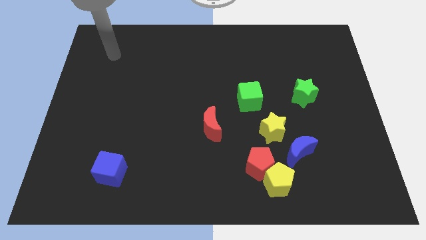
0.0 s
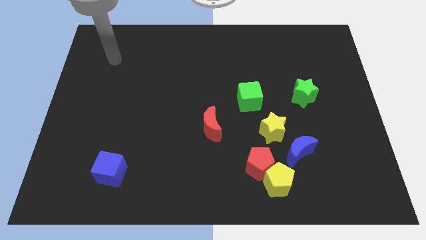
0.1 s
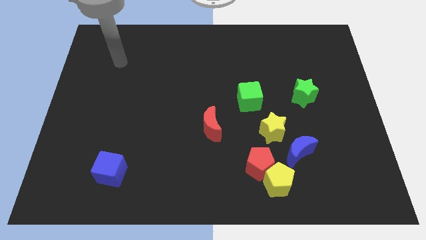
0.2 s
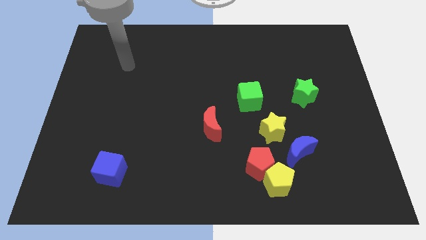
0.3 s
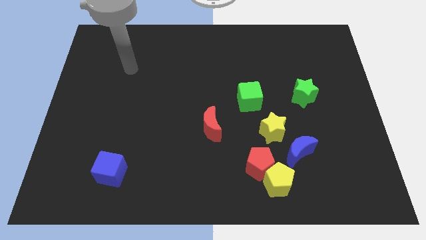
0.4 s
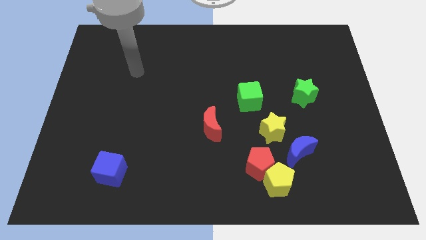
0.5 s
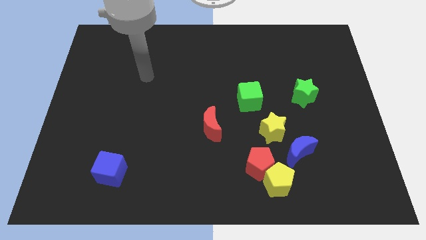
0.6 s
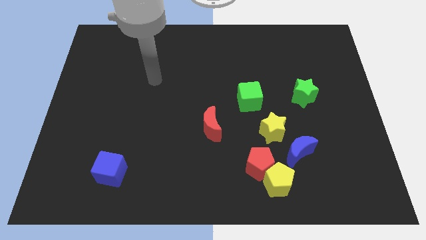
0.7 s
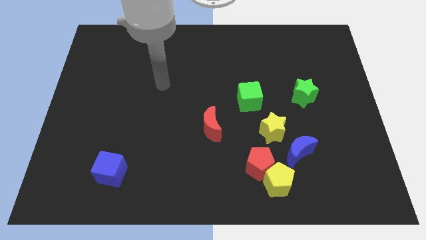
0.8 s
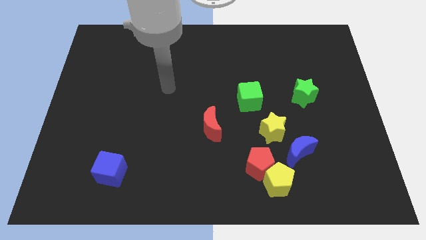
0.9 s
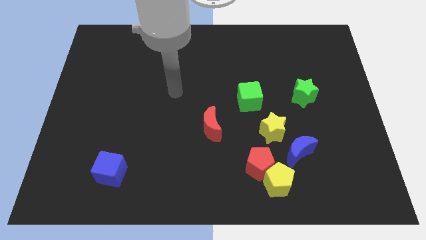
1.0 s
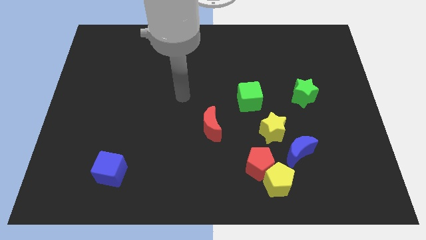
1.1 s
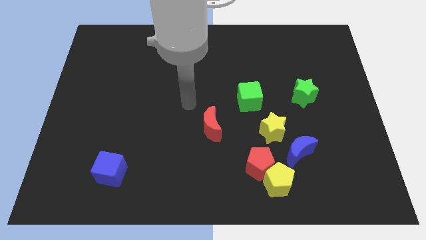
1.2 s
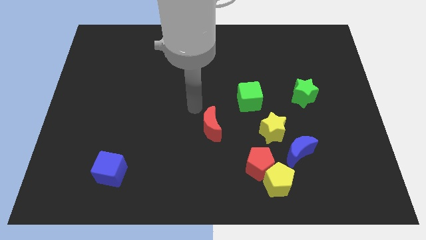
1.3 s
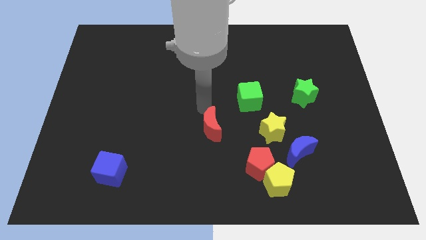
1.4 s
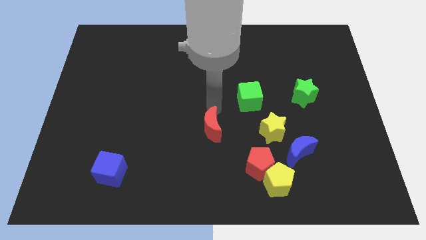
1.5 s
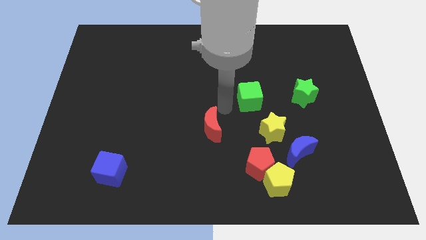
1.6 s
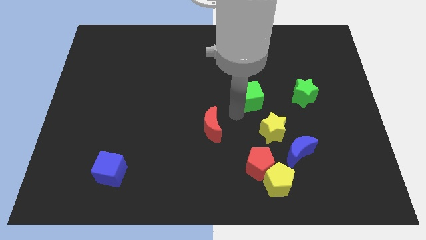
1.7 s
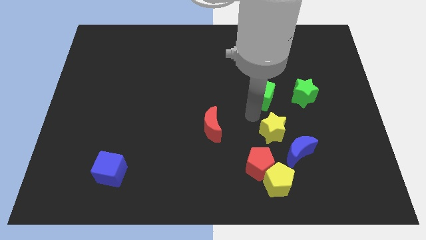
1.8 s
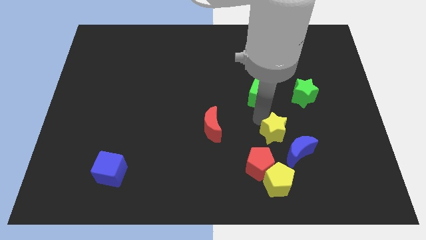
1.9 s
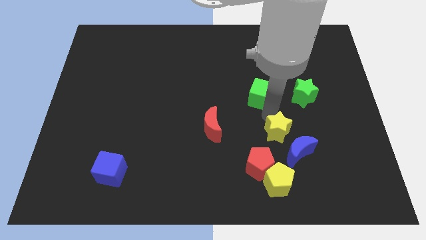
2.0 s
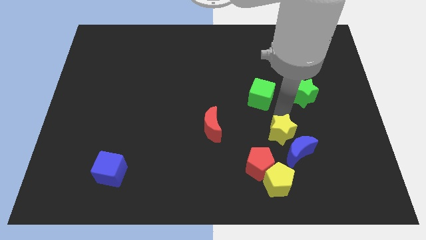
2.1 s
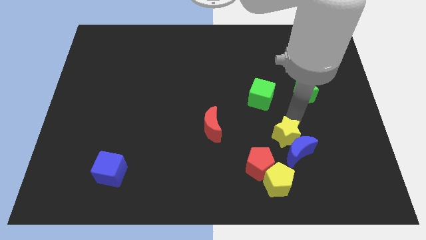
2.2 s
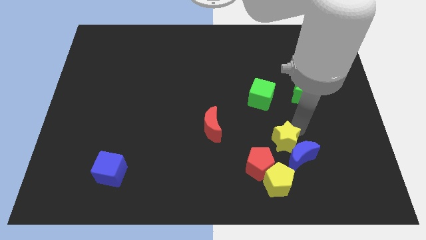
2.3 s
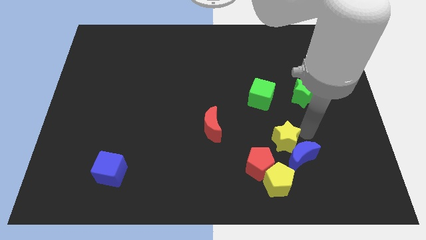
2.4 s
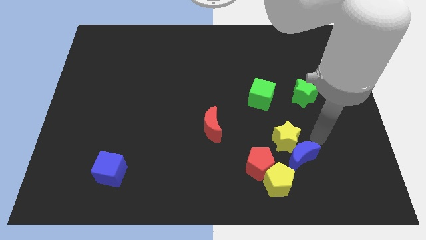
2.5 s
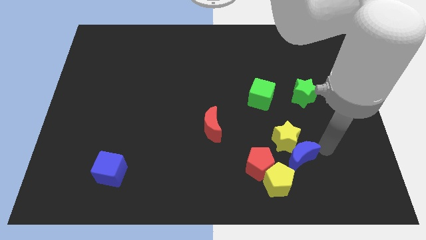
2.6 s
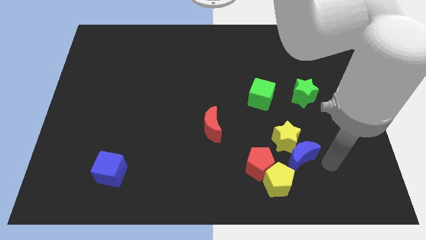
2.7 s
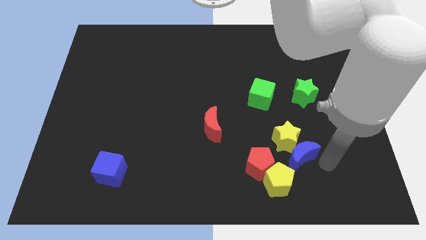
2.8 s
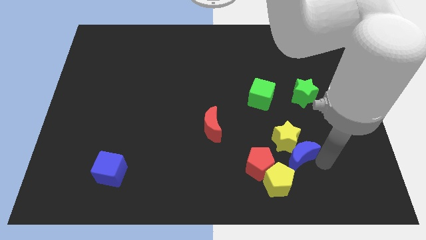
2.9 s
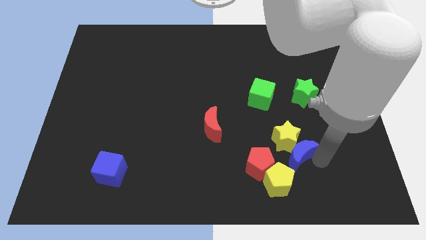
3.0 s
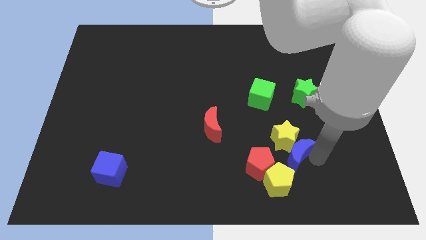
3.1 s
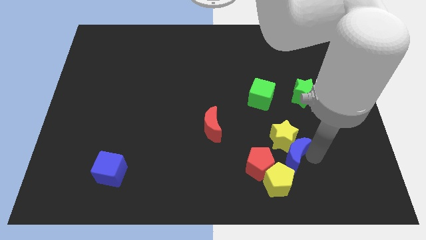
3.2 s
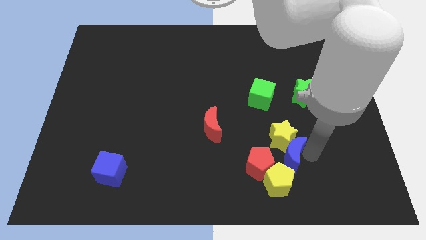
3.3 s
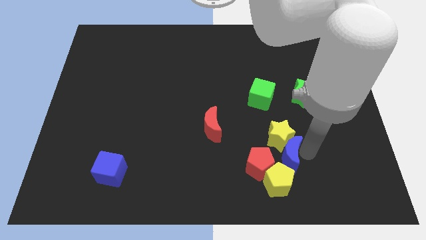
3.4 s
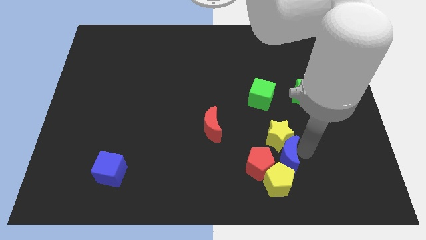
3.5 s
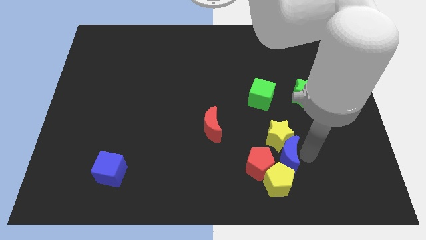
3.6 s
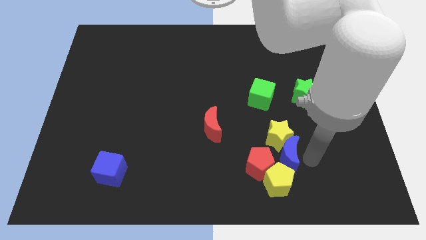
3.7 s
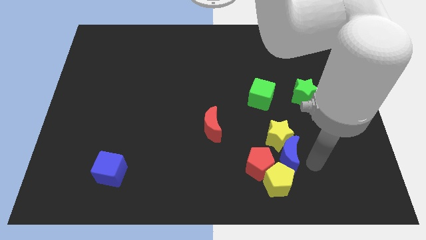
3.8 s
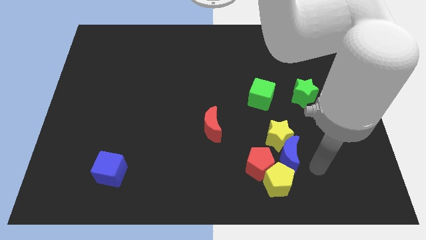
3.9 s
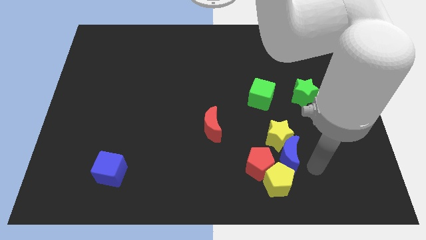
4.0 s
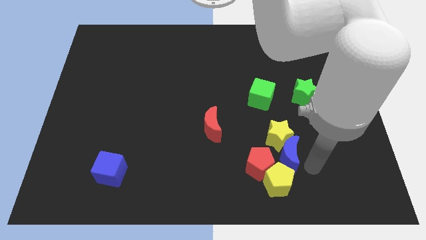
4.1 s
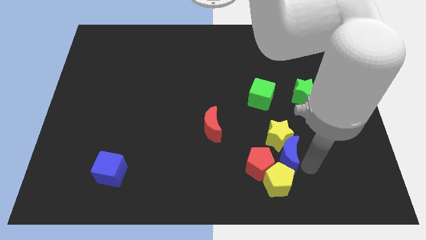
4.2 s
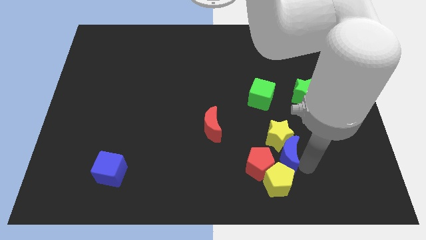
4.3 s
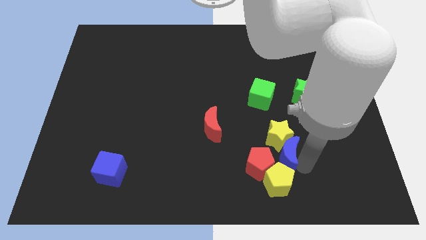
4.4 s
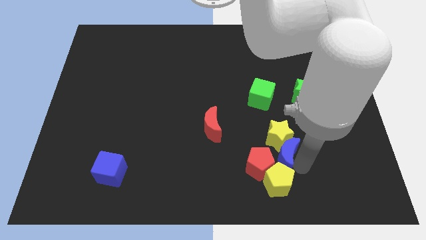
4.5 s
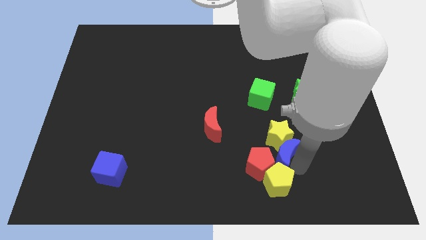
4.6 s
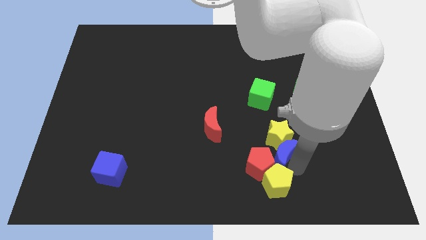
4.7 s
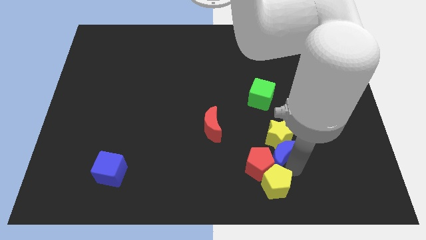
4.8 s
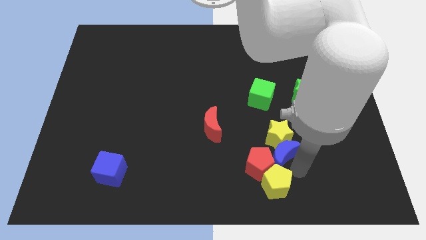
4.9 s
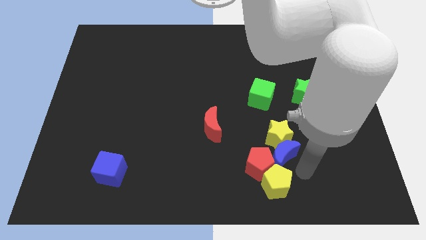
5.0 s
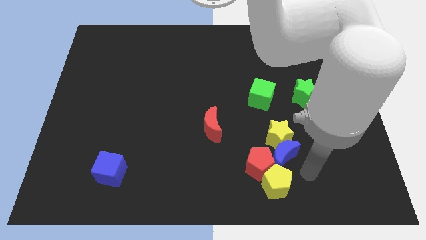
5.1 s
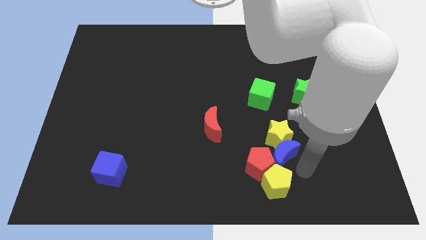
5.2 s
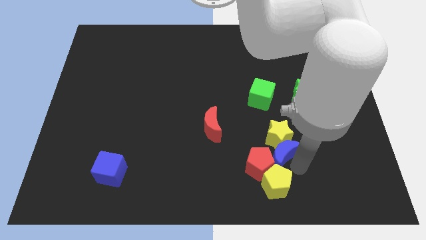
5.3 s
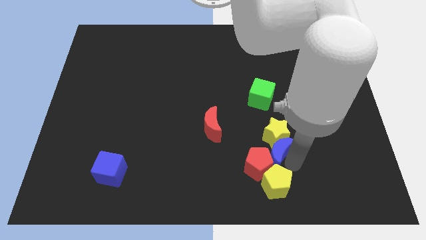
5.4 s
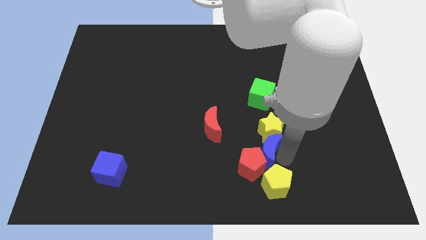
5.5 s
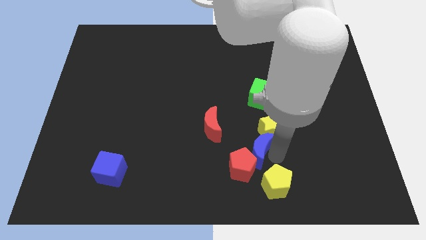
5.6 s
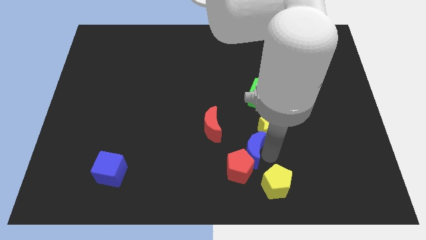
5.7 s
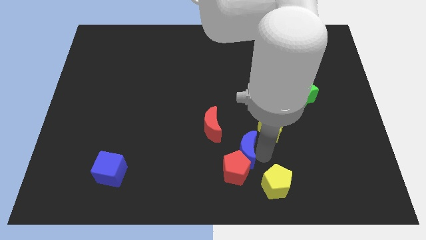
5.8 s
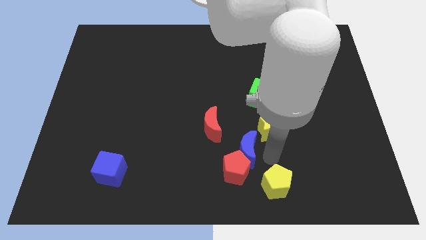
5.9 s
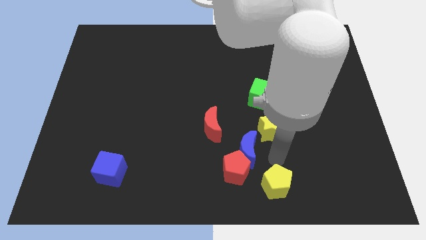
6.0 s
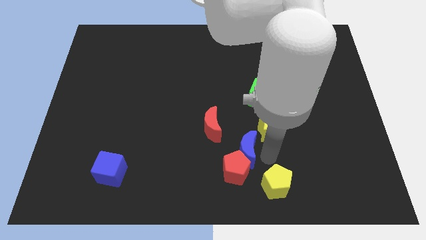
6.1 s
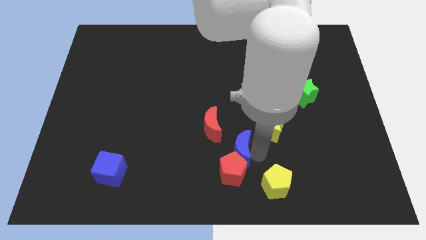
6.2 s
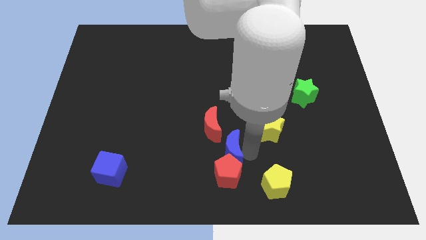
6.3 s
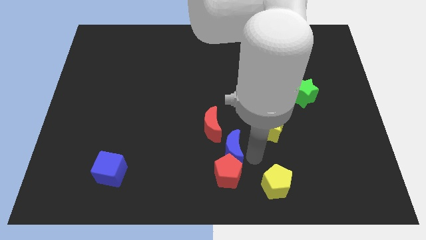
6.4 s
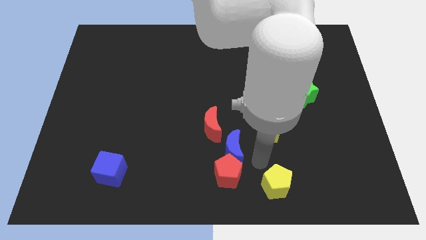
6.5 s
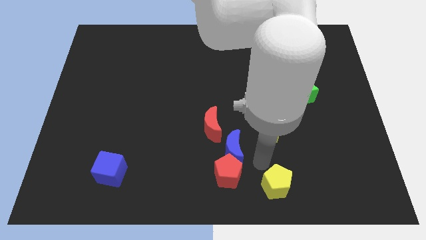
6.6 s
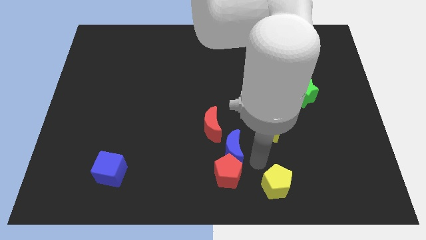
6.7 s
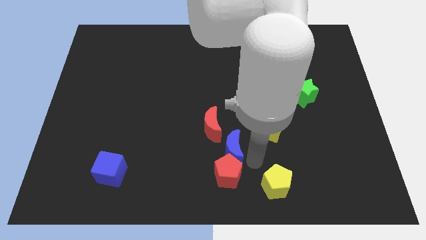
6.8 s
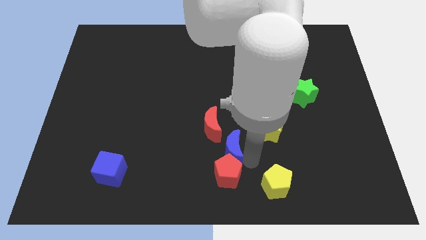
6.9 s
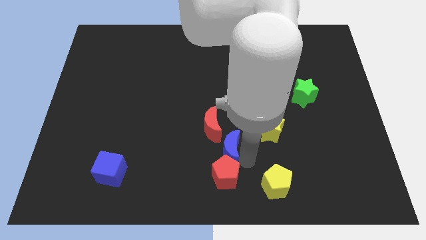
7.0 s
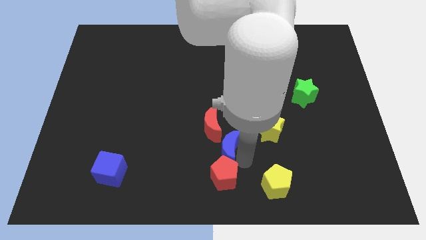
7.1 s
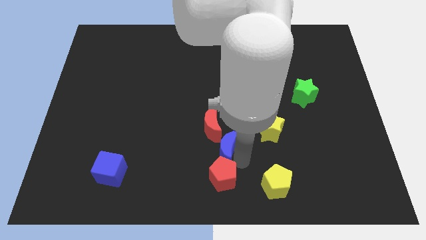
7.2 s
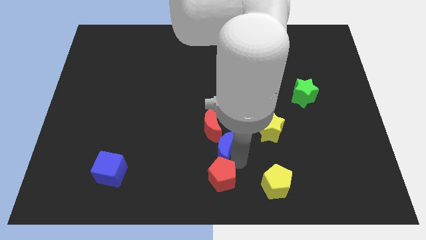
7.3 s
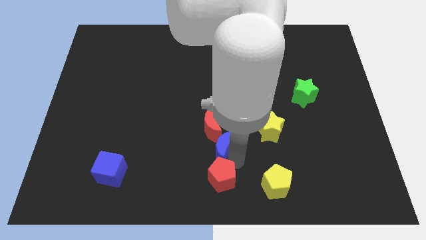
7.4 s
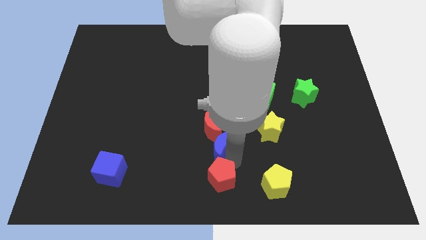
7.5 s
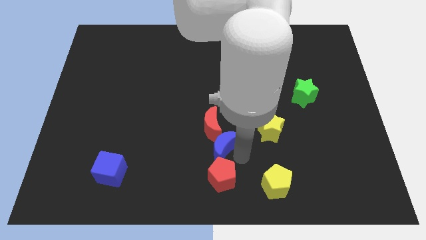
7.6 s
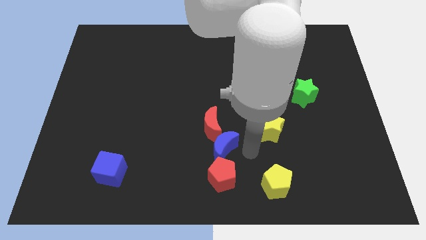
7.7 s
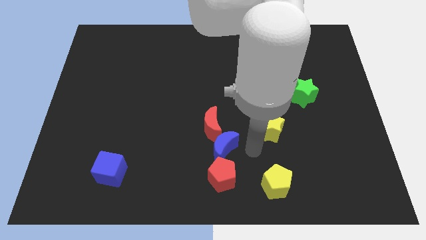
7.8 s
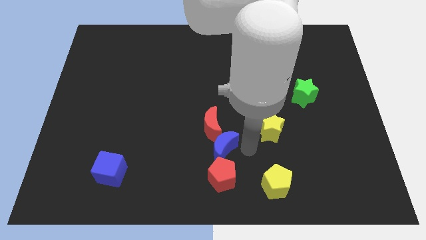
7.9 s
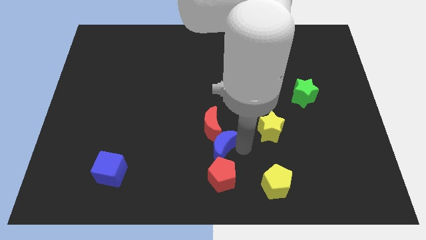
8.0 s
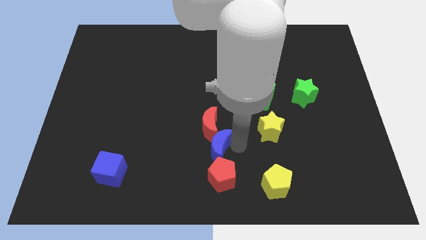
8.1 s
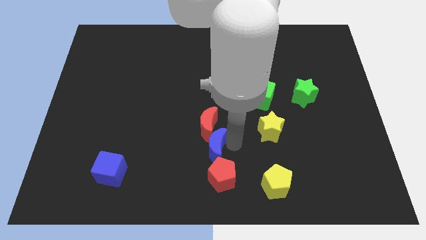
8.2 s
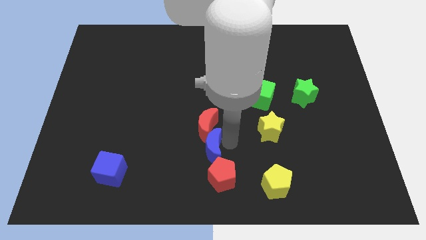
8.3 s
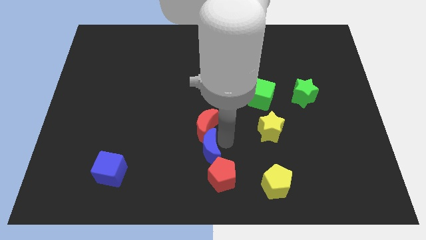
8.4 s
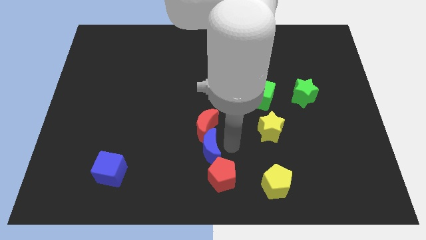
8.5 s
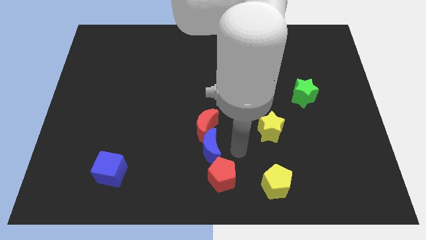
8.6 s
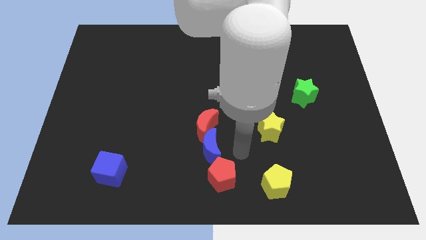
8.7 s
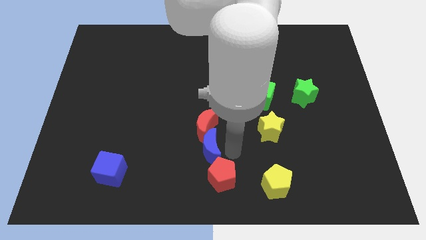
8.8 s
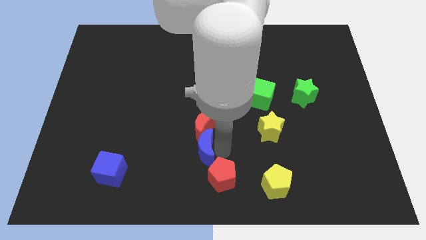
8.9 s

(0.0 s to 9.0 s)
move the blue moon left
